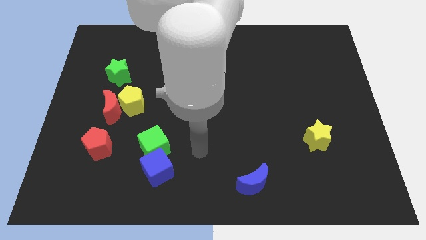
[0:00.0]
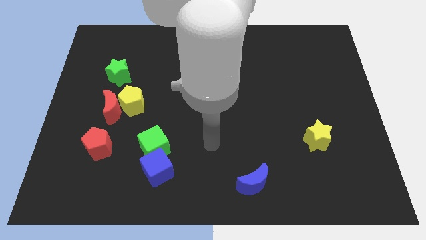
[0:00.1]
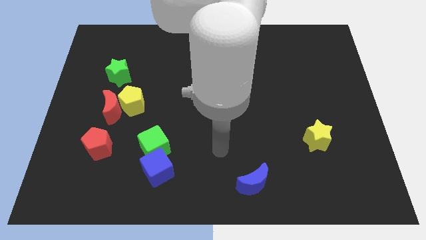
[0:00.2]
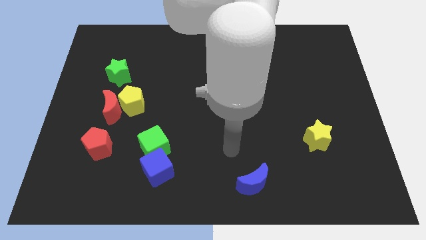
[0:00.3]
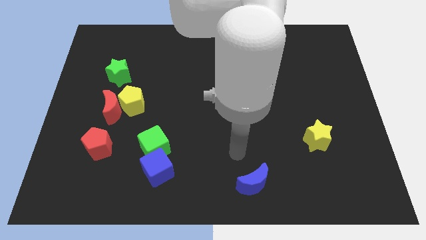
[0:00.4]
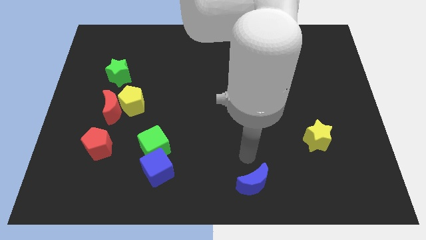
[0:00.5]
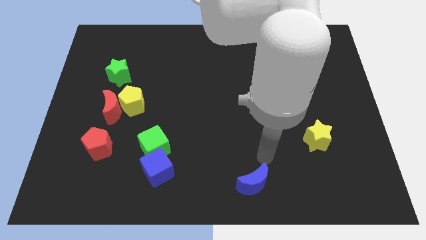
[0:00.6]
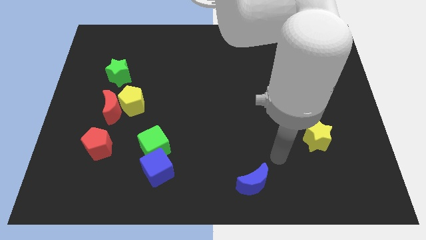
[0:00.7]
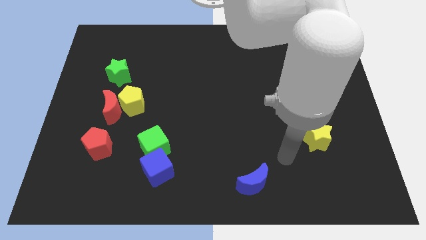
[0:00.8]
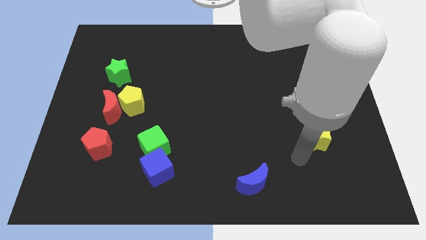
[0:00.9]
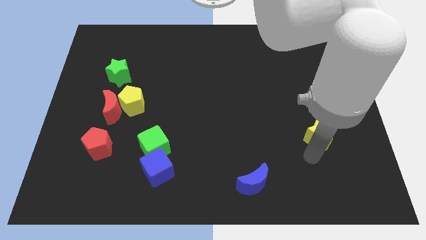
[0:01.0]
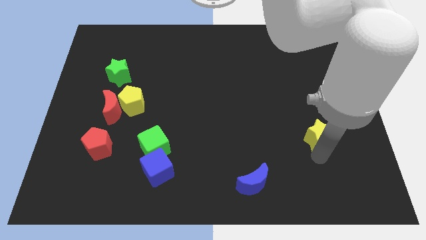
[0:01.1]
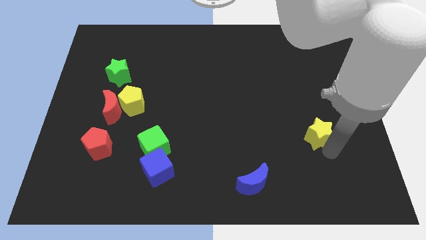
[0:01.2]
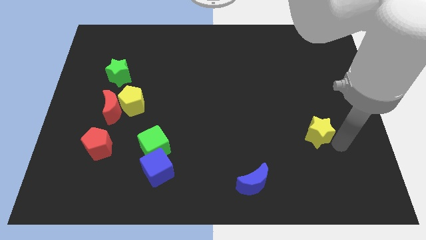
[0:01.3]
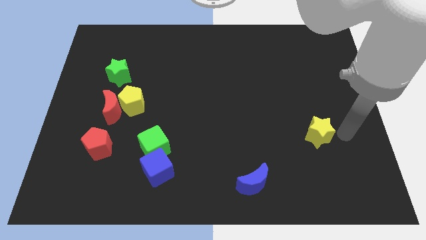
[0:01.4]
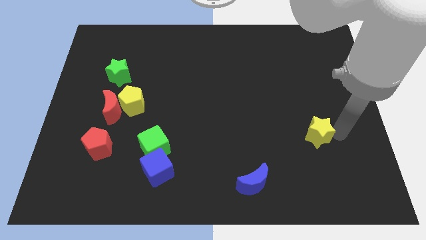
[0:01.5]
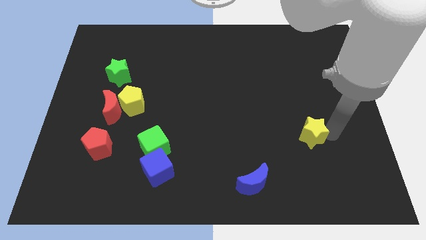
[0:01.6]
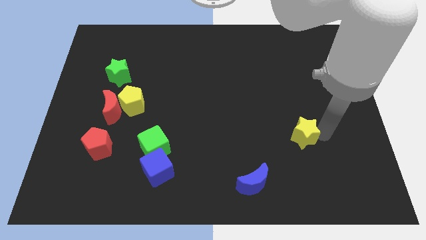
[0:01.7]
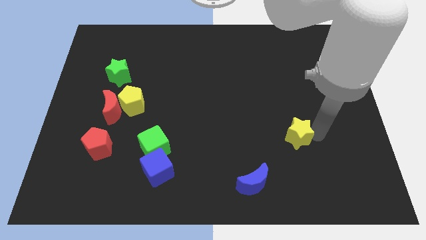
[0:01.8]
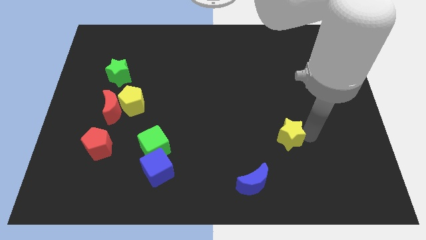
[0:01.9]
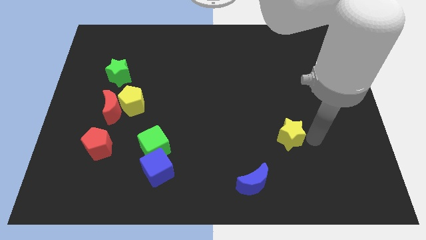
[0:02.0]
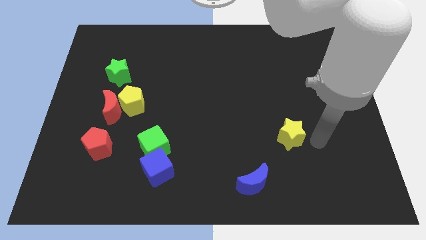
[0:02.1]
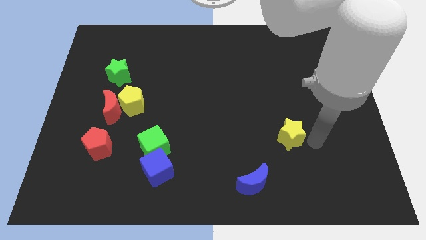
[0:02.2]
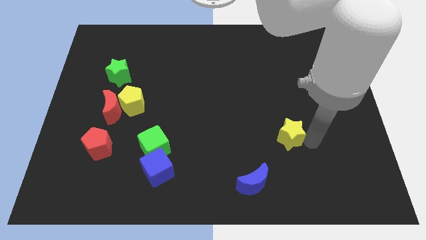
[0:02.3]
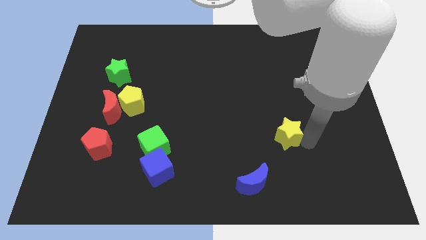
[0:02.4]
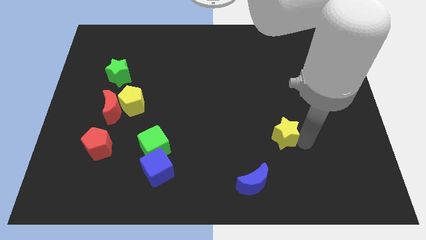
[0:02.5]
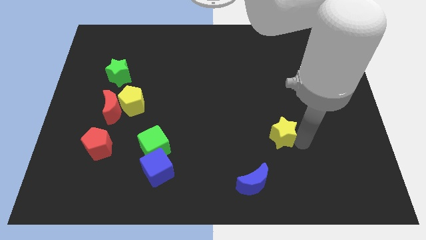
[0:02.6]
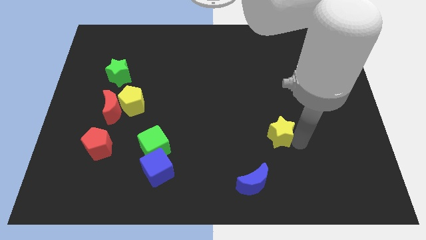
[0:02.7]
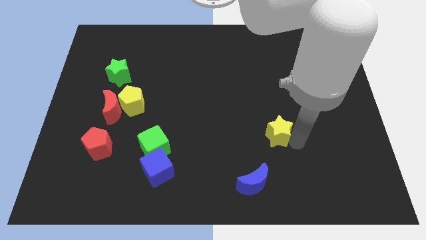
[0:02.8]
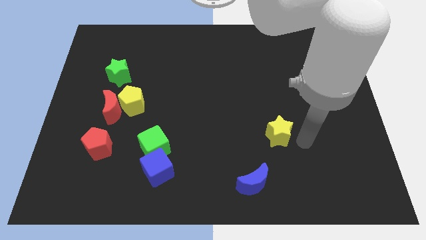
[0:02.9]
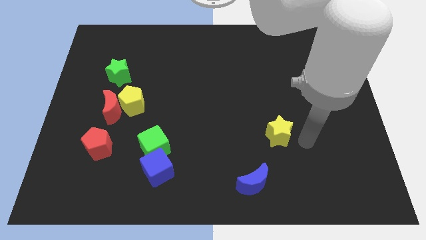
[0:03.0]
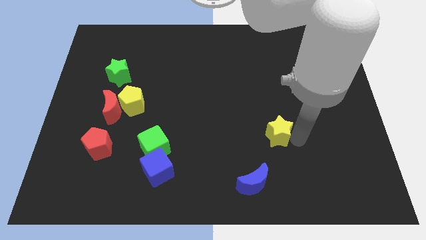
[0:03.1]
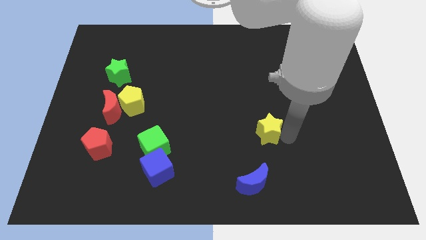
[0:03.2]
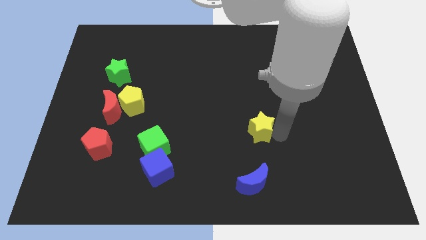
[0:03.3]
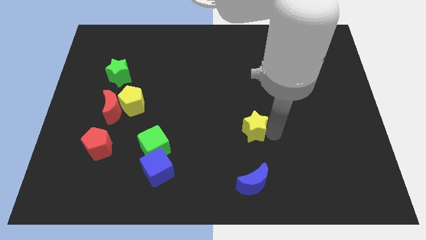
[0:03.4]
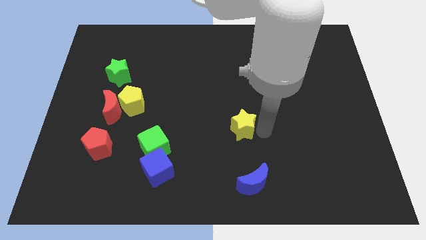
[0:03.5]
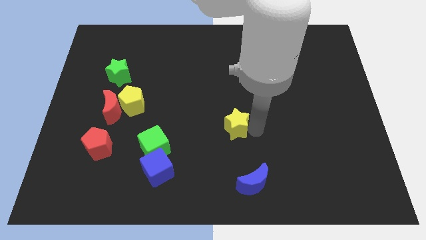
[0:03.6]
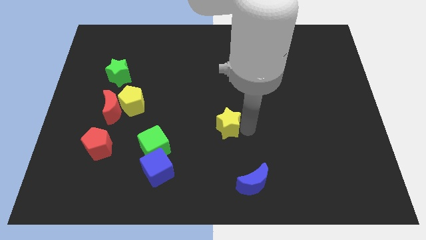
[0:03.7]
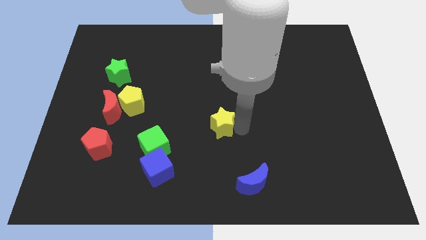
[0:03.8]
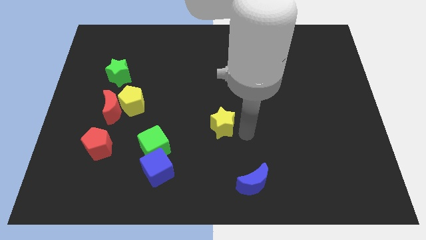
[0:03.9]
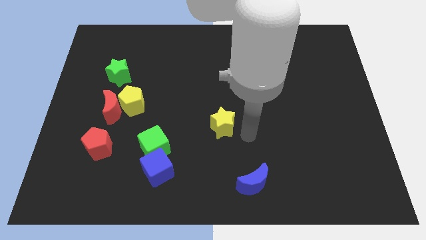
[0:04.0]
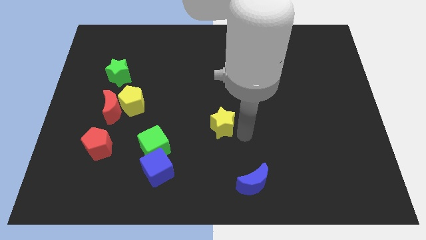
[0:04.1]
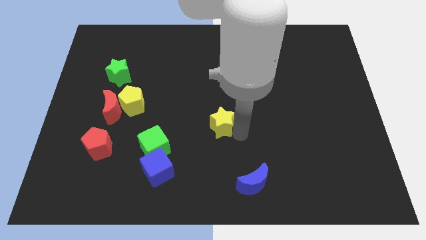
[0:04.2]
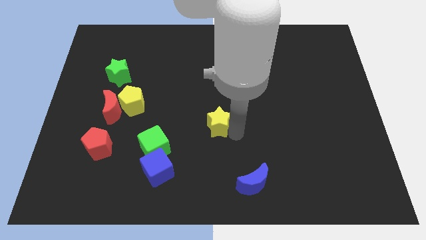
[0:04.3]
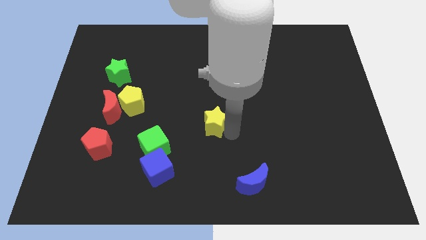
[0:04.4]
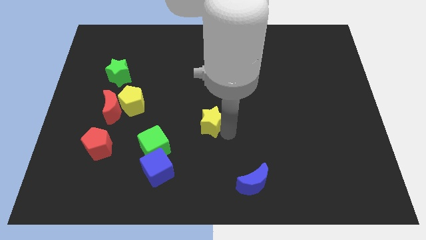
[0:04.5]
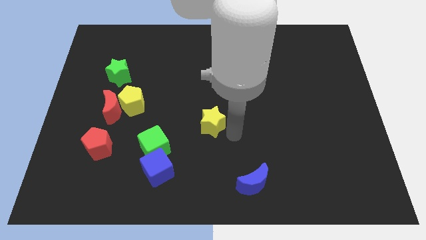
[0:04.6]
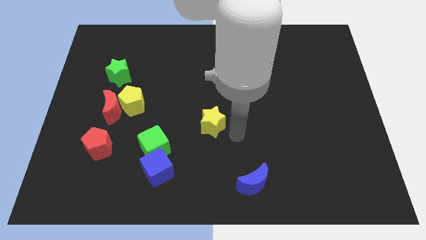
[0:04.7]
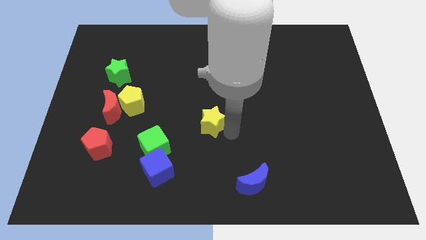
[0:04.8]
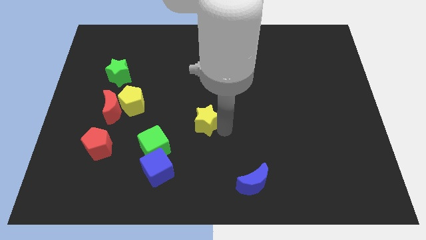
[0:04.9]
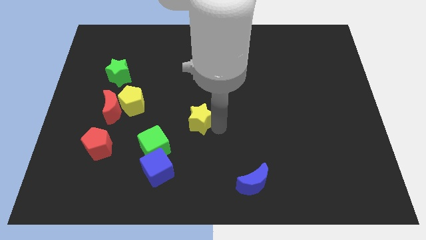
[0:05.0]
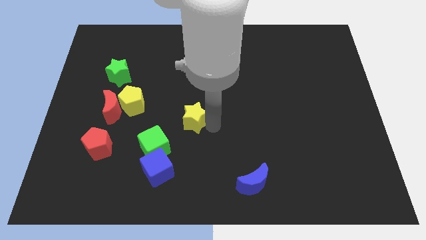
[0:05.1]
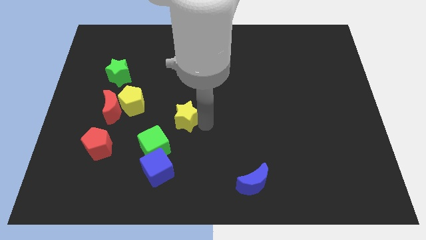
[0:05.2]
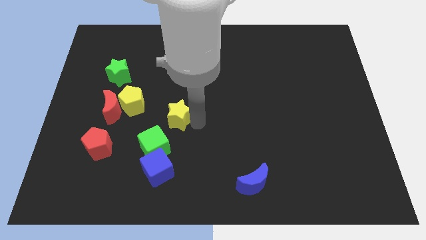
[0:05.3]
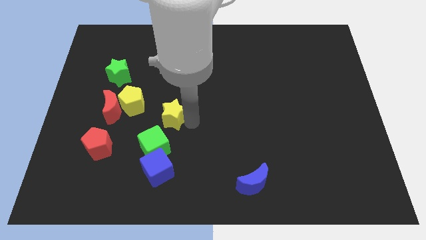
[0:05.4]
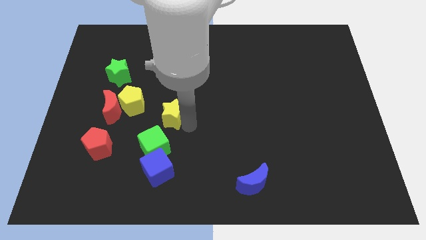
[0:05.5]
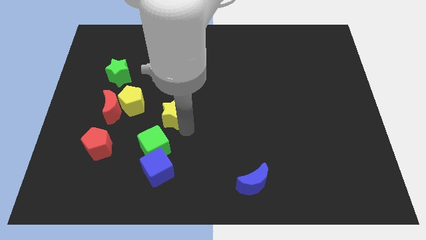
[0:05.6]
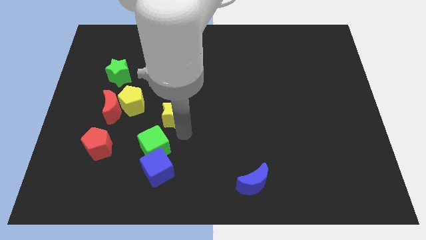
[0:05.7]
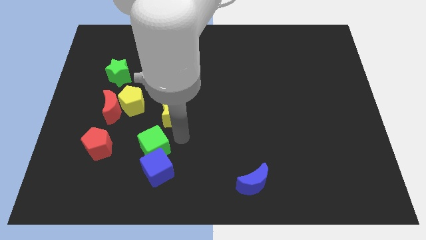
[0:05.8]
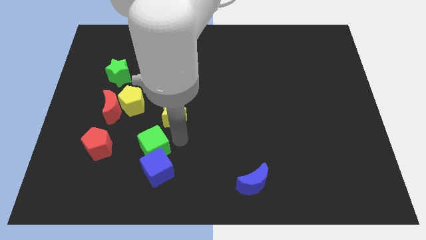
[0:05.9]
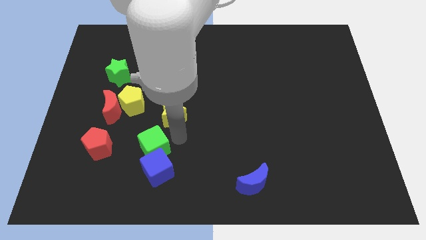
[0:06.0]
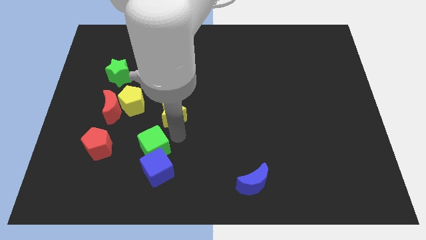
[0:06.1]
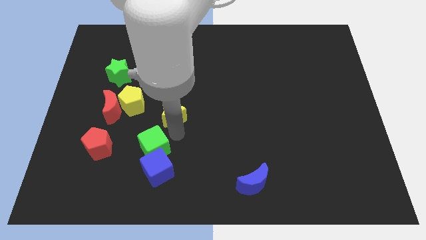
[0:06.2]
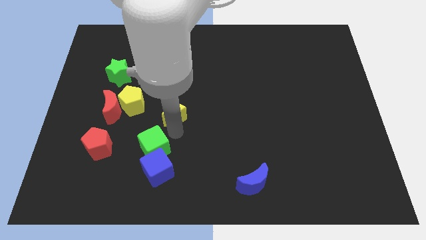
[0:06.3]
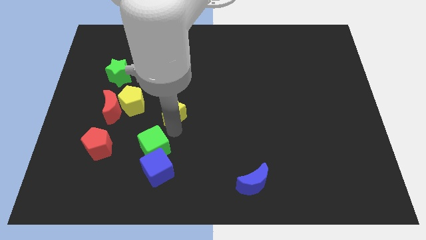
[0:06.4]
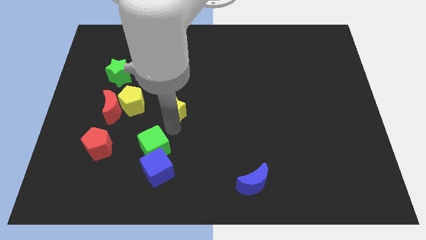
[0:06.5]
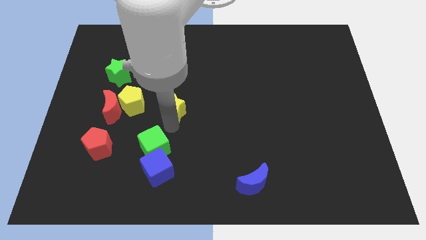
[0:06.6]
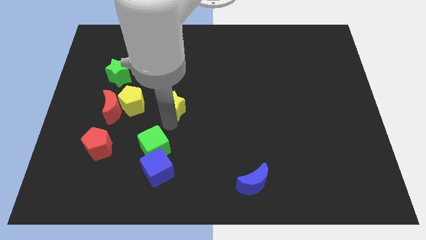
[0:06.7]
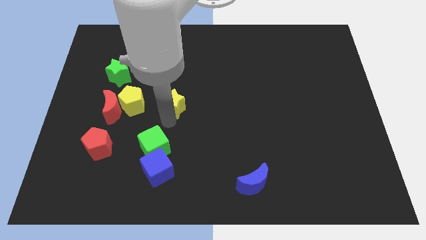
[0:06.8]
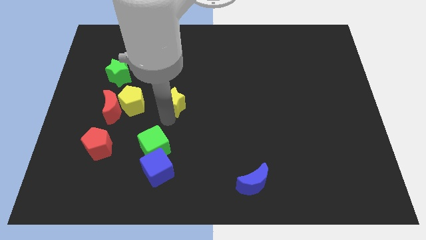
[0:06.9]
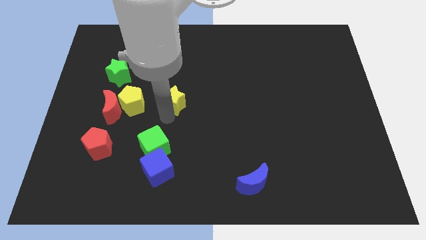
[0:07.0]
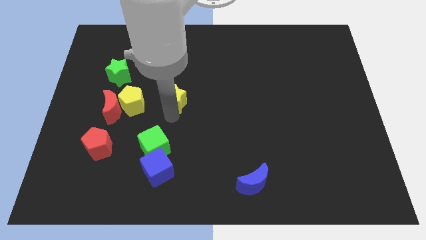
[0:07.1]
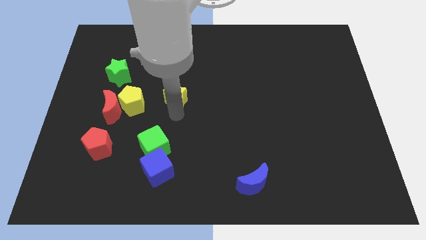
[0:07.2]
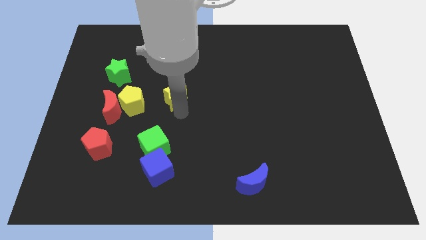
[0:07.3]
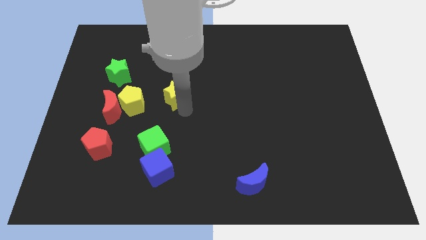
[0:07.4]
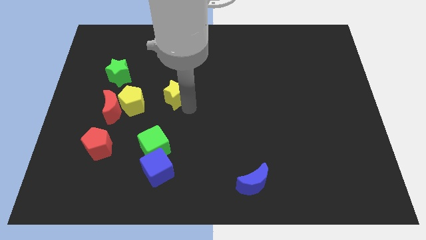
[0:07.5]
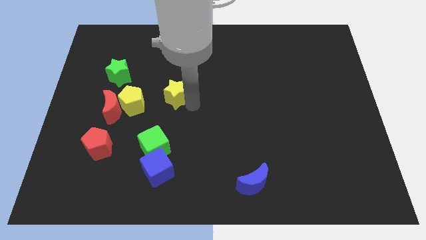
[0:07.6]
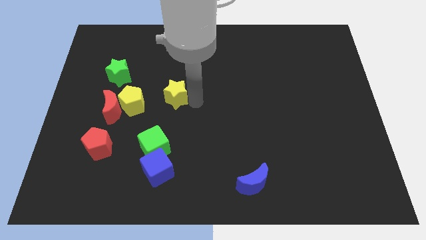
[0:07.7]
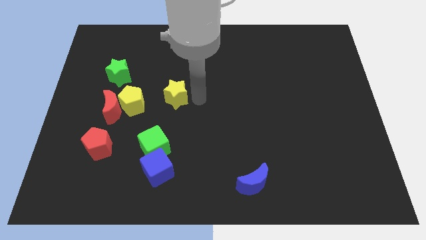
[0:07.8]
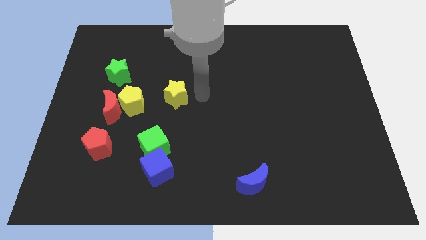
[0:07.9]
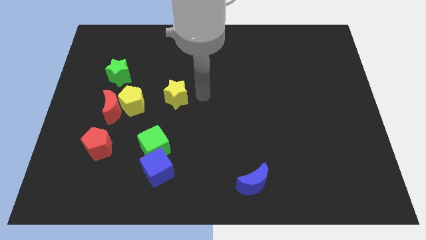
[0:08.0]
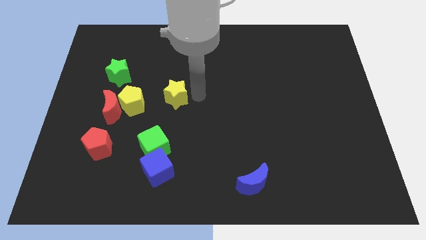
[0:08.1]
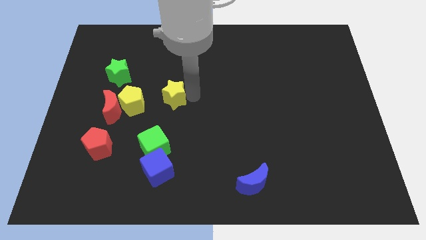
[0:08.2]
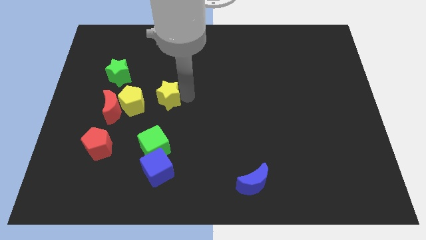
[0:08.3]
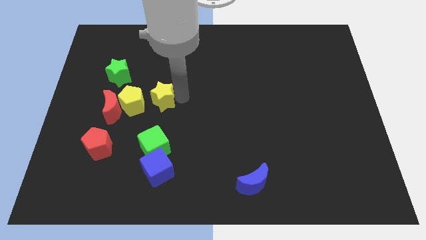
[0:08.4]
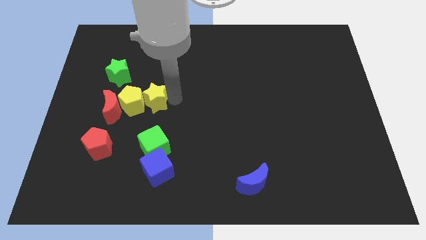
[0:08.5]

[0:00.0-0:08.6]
move the yellow star diagonally down and to the right of the green star
